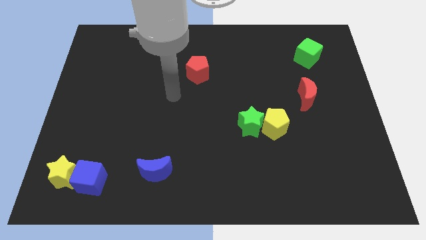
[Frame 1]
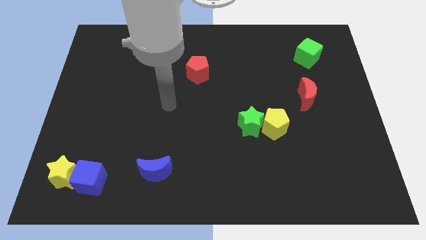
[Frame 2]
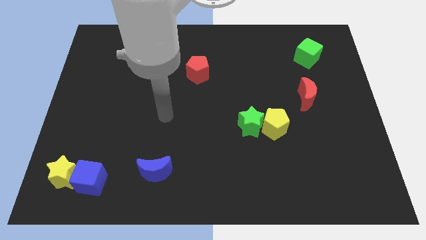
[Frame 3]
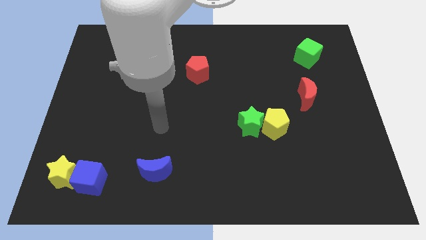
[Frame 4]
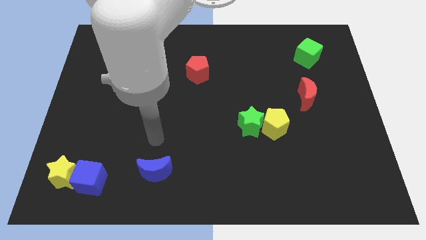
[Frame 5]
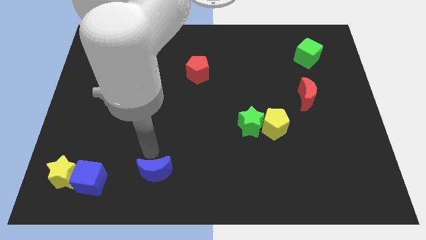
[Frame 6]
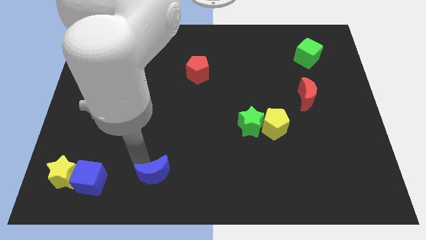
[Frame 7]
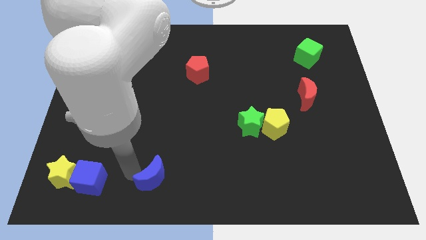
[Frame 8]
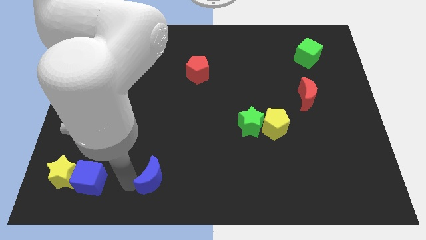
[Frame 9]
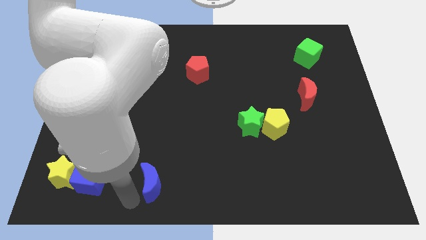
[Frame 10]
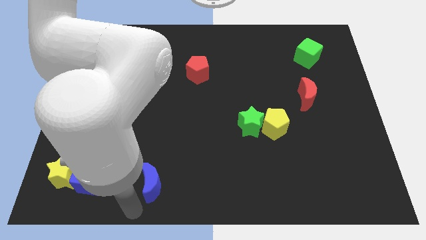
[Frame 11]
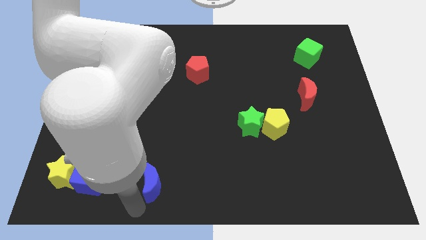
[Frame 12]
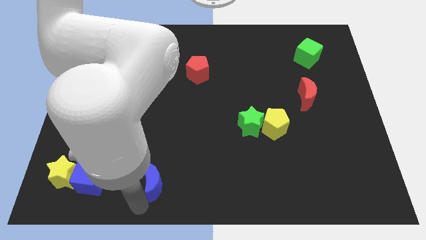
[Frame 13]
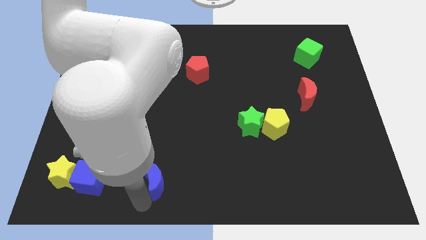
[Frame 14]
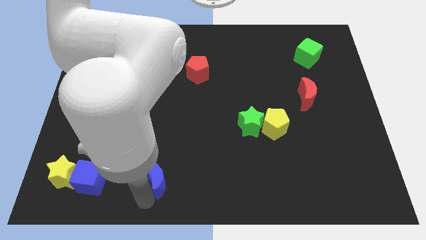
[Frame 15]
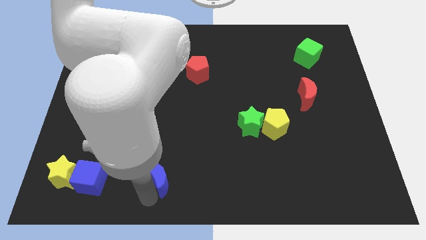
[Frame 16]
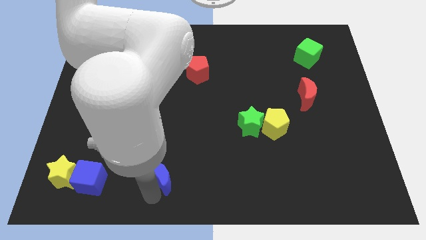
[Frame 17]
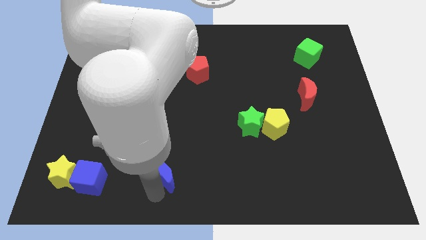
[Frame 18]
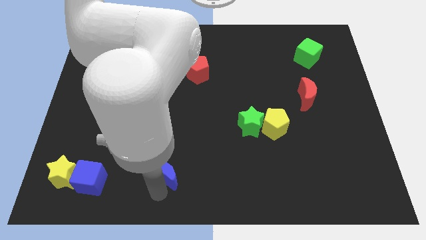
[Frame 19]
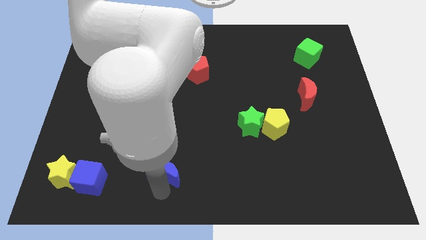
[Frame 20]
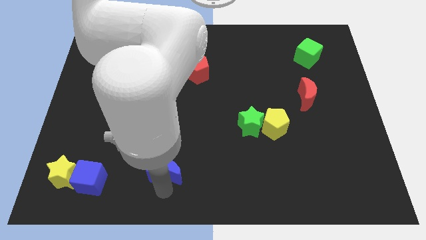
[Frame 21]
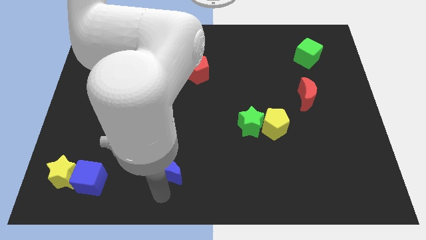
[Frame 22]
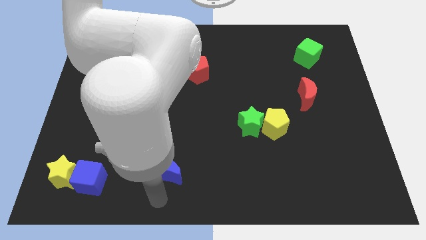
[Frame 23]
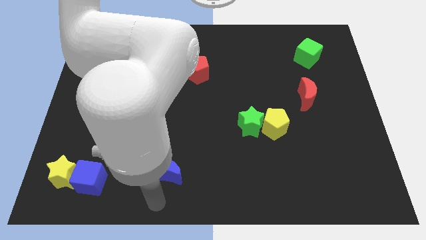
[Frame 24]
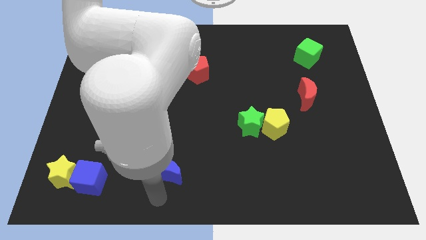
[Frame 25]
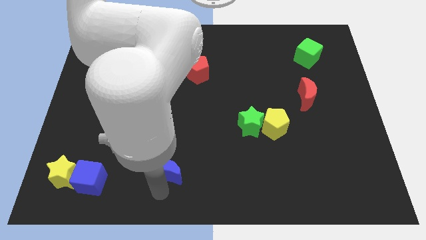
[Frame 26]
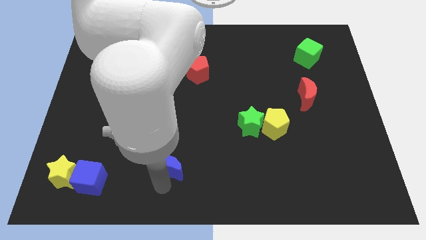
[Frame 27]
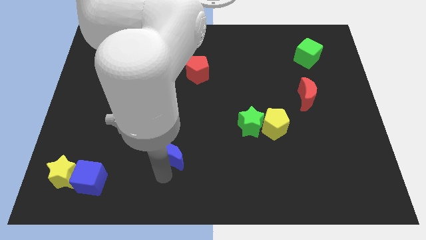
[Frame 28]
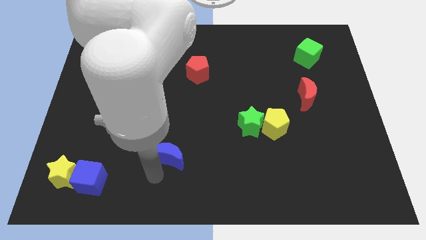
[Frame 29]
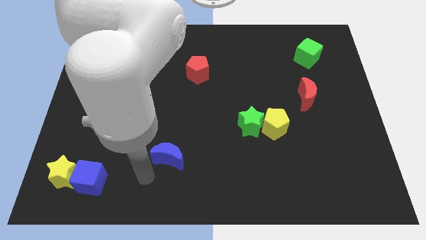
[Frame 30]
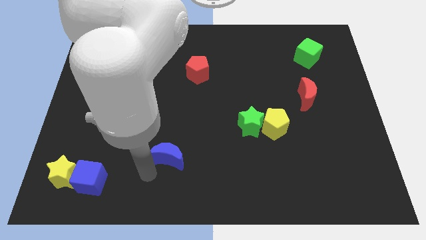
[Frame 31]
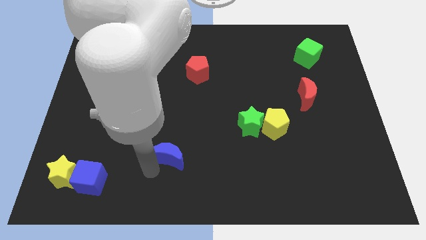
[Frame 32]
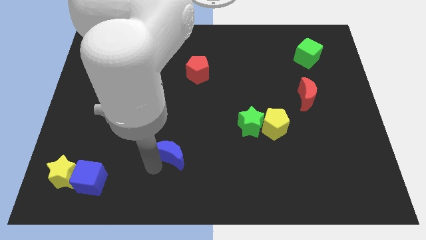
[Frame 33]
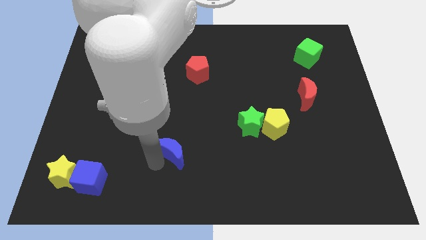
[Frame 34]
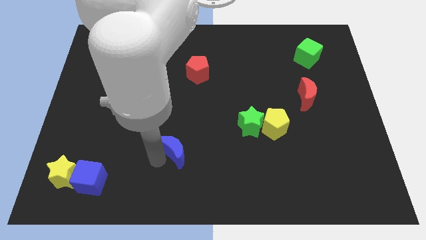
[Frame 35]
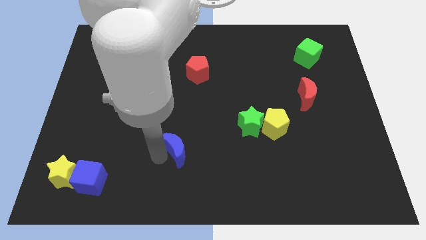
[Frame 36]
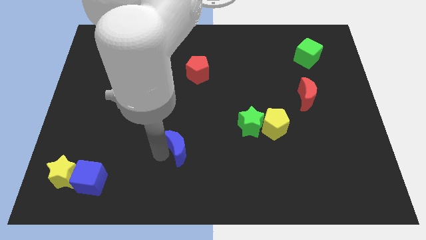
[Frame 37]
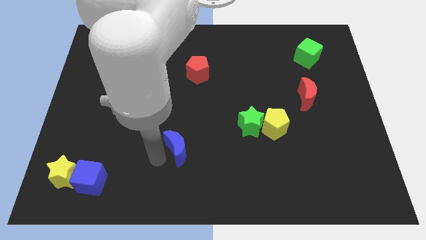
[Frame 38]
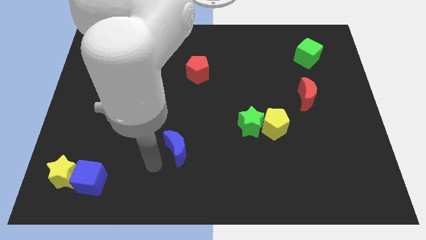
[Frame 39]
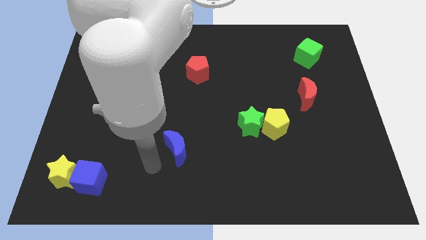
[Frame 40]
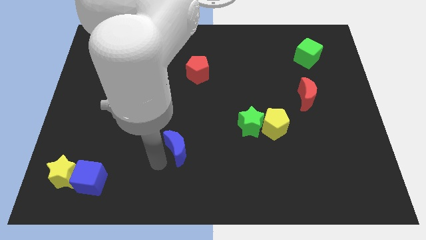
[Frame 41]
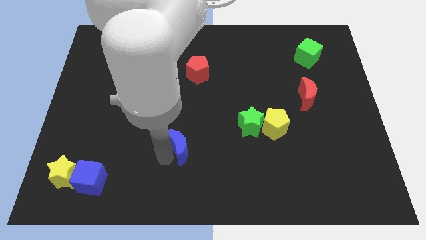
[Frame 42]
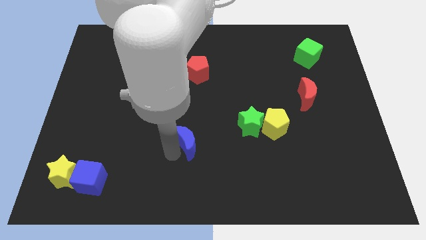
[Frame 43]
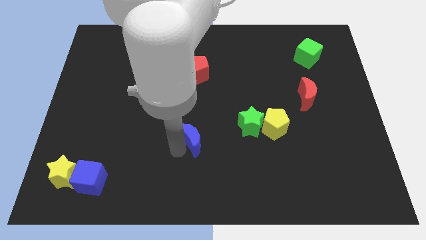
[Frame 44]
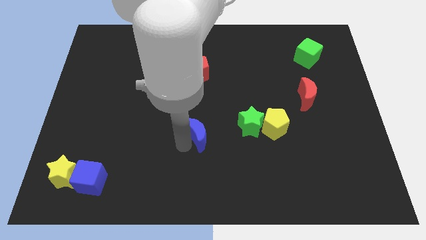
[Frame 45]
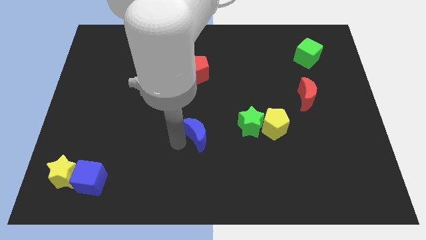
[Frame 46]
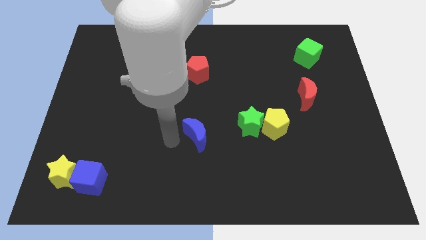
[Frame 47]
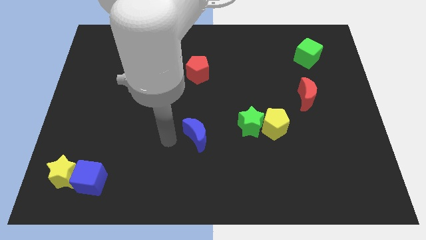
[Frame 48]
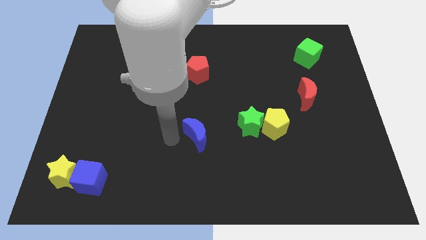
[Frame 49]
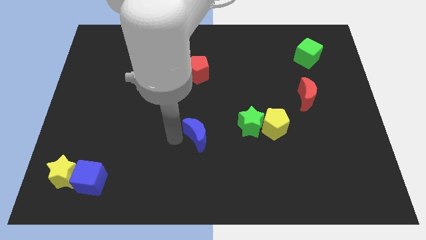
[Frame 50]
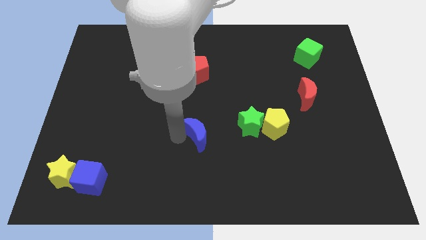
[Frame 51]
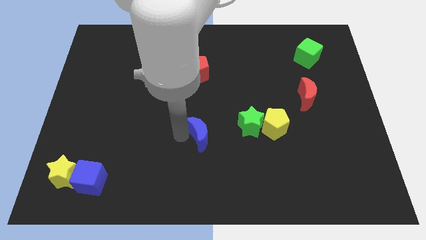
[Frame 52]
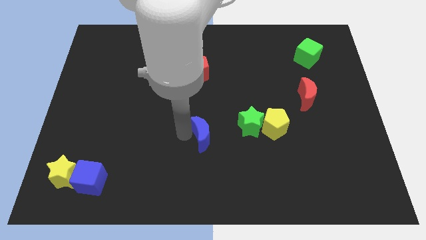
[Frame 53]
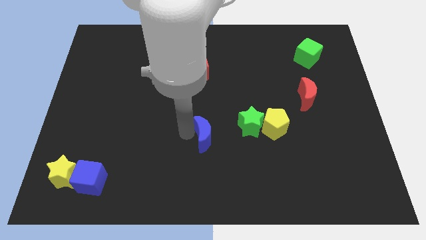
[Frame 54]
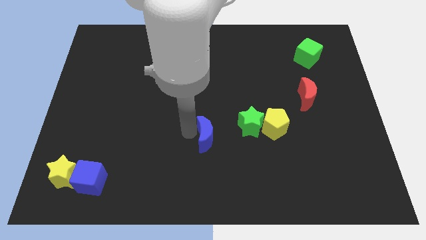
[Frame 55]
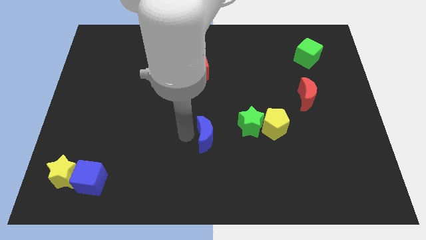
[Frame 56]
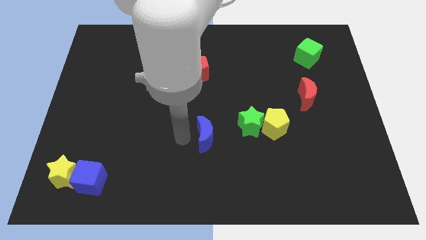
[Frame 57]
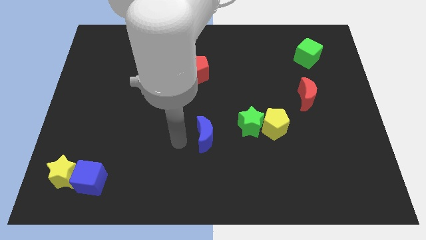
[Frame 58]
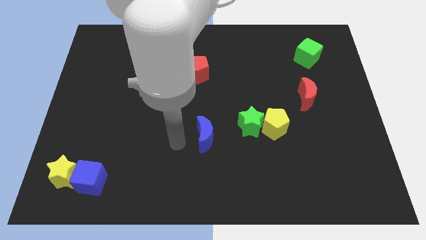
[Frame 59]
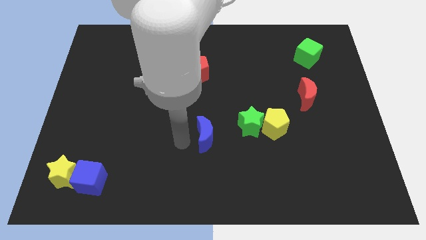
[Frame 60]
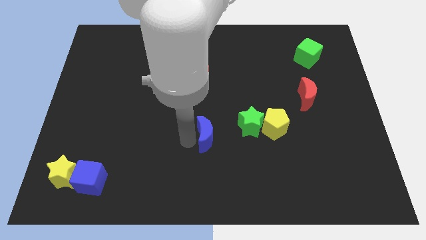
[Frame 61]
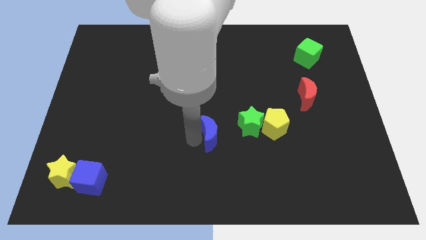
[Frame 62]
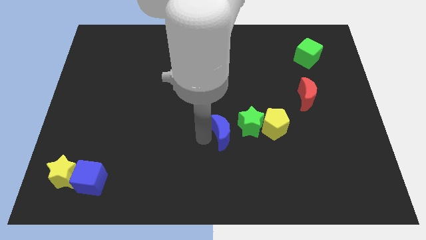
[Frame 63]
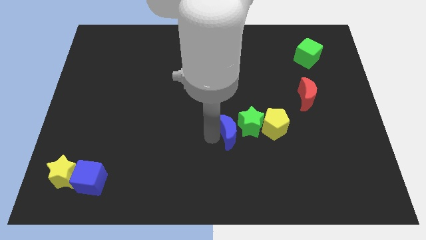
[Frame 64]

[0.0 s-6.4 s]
push the blue moon next to the green star

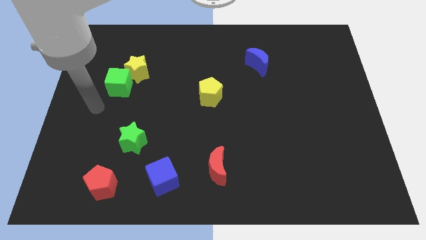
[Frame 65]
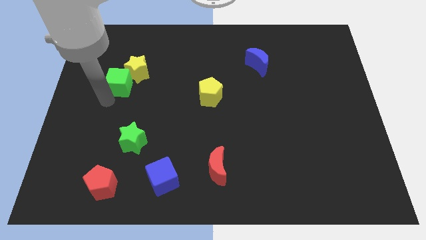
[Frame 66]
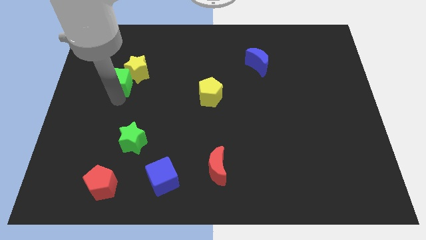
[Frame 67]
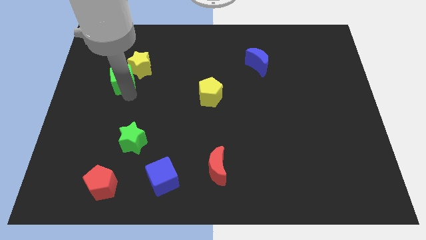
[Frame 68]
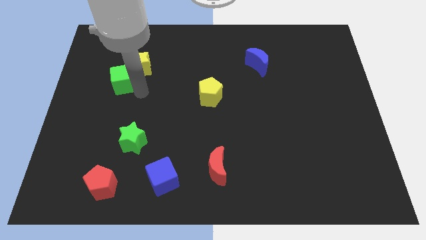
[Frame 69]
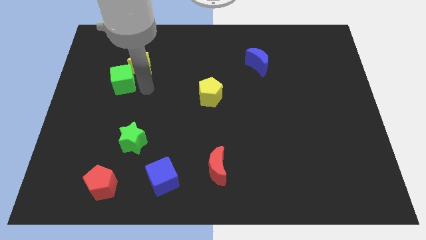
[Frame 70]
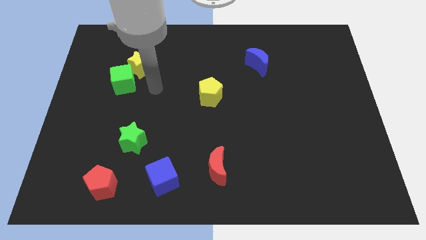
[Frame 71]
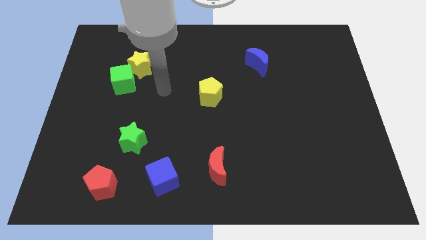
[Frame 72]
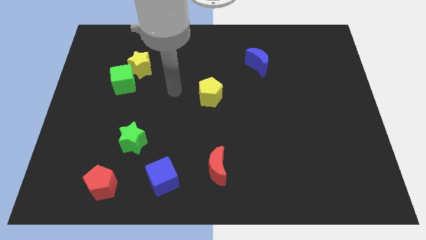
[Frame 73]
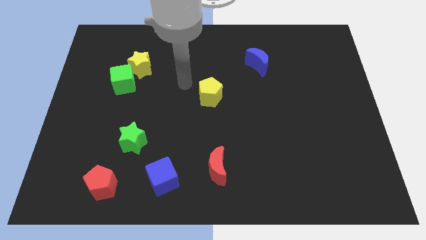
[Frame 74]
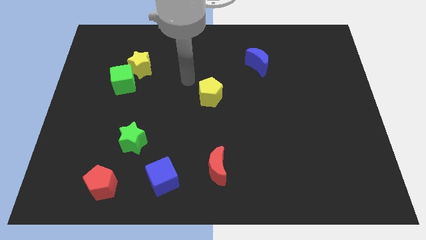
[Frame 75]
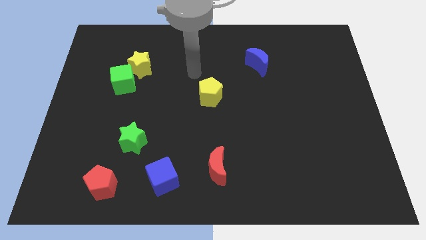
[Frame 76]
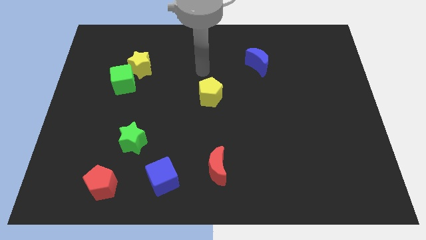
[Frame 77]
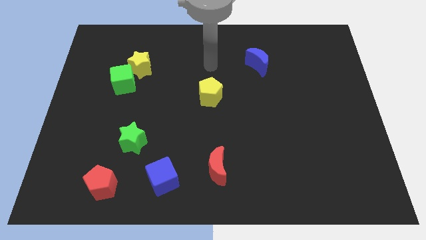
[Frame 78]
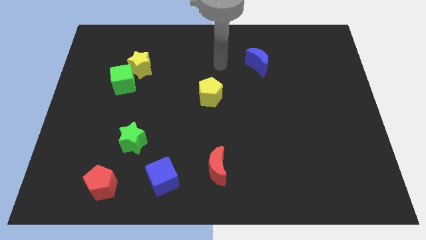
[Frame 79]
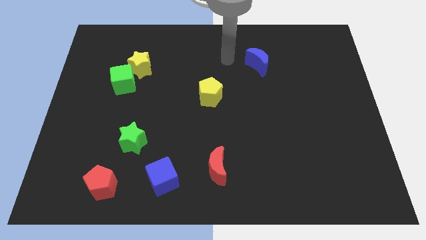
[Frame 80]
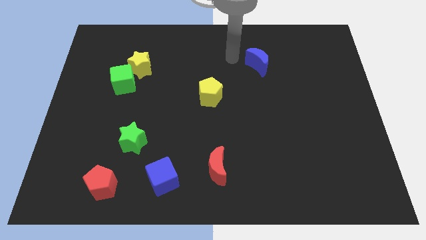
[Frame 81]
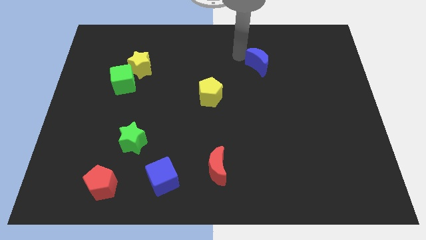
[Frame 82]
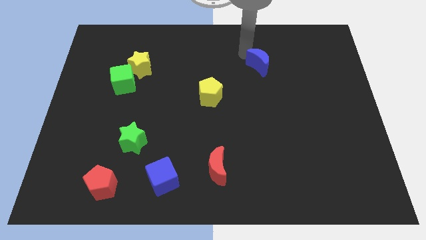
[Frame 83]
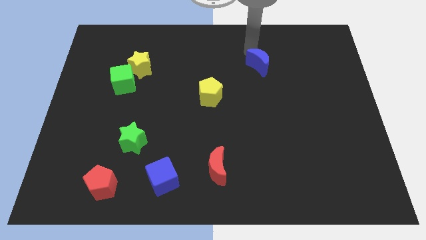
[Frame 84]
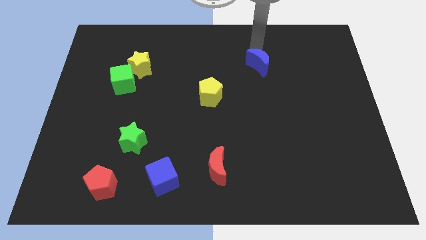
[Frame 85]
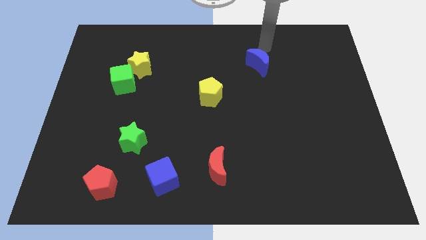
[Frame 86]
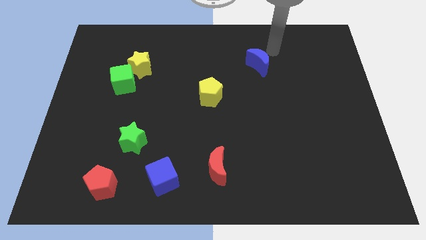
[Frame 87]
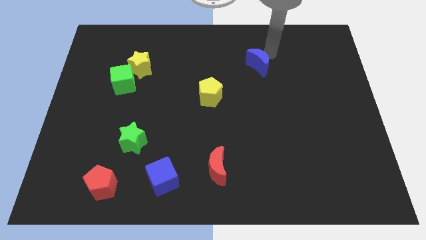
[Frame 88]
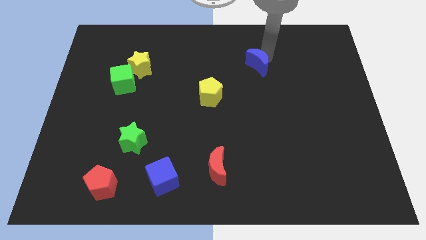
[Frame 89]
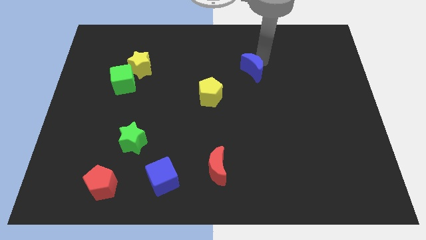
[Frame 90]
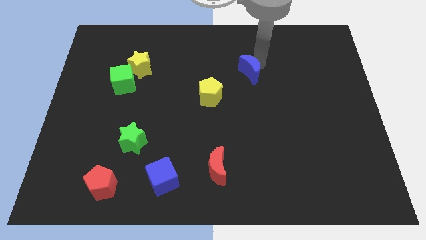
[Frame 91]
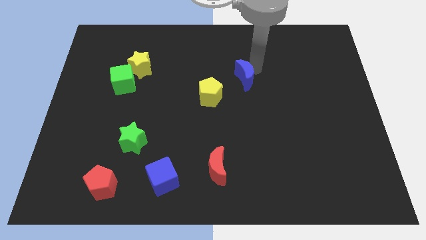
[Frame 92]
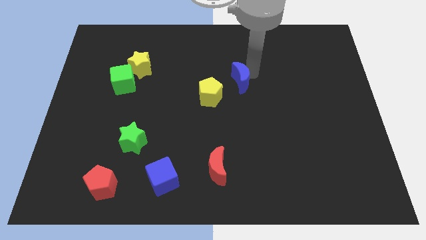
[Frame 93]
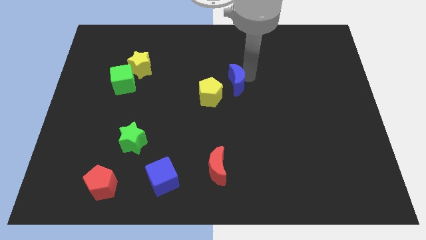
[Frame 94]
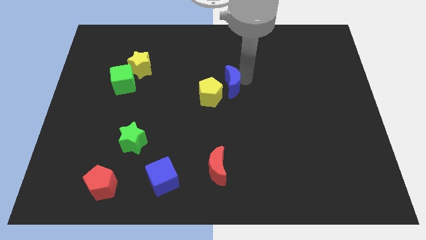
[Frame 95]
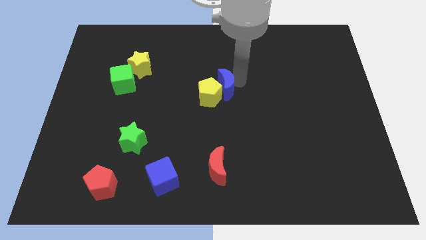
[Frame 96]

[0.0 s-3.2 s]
push the blue moon close to the yellow pentagon
